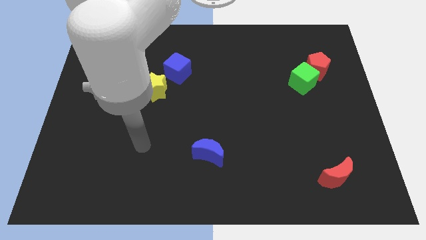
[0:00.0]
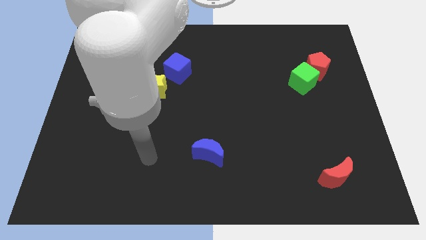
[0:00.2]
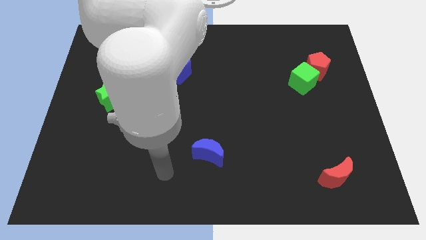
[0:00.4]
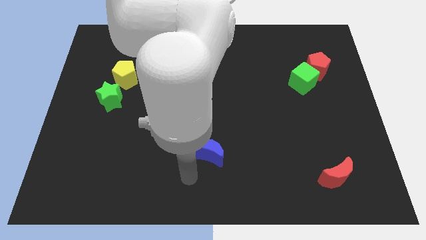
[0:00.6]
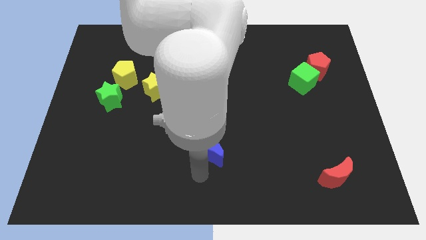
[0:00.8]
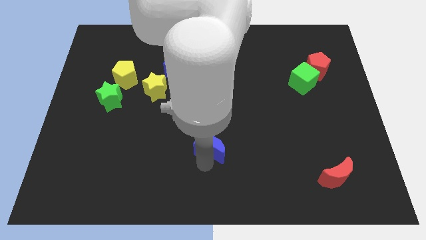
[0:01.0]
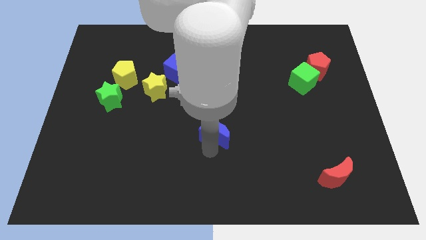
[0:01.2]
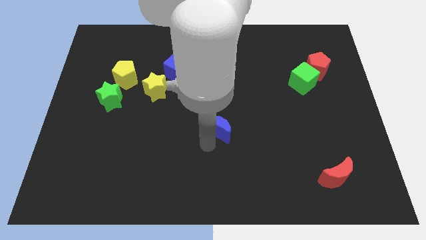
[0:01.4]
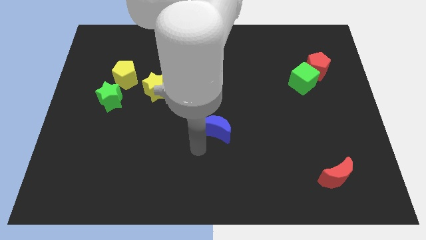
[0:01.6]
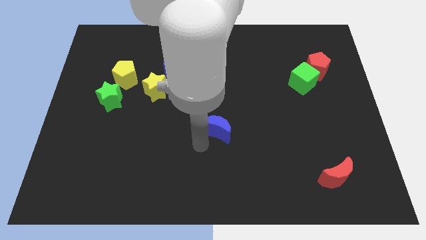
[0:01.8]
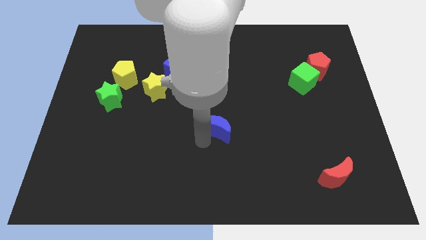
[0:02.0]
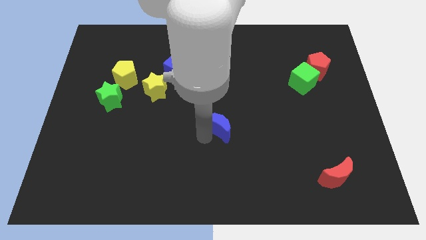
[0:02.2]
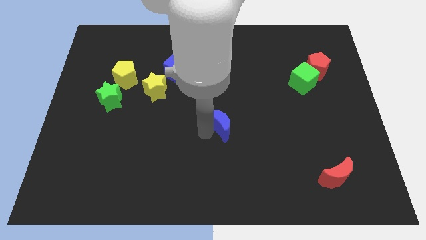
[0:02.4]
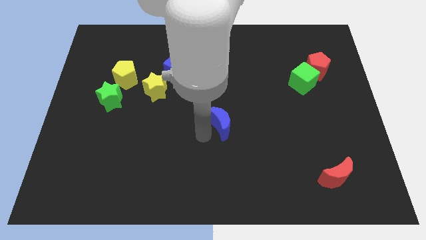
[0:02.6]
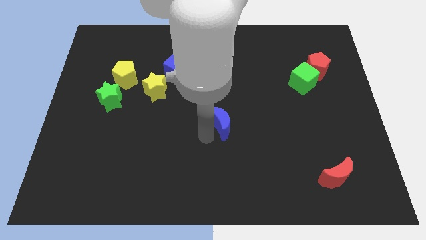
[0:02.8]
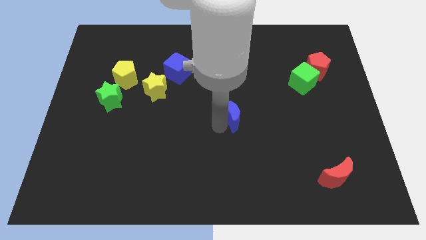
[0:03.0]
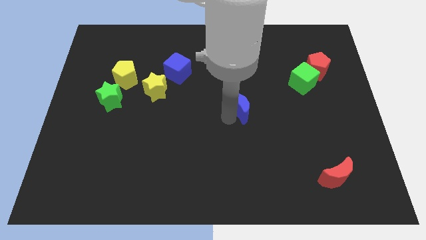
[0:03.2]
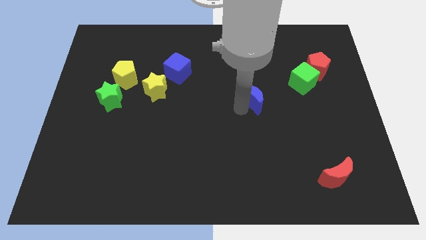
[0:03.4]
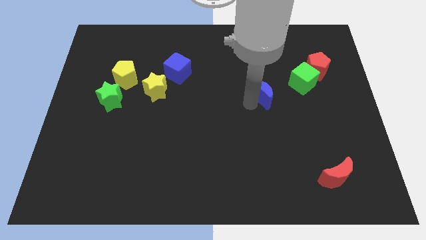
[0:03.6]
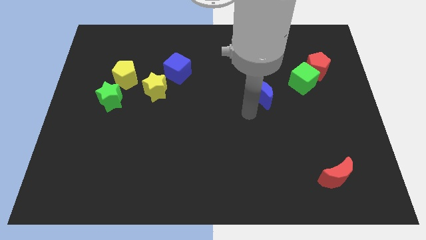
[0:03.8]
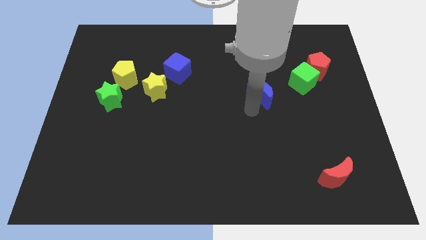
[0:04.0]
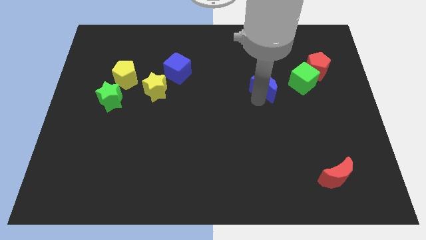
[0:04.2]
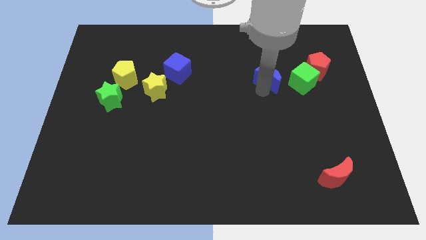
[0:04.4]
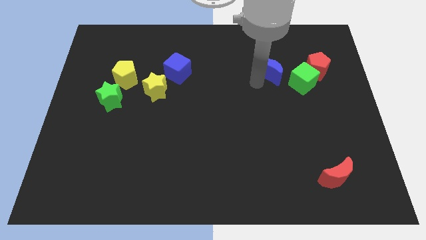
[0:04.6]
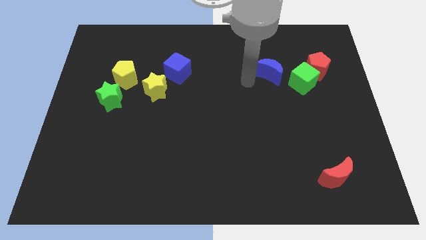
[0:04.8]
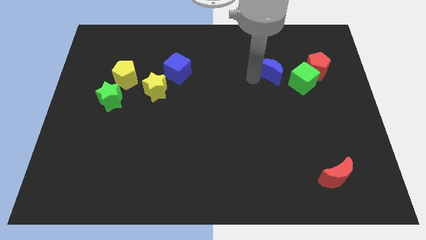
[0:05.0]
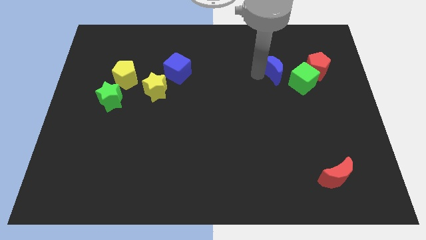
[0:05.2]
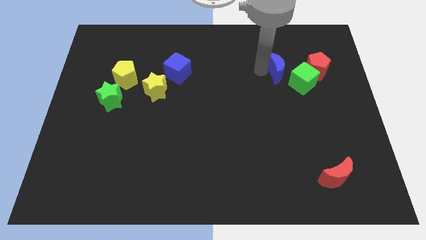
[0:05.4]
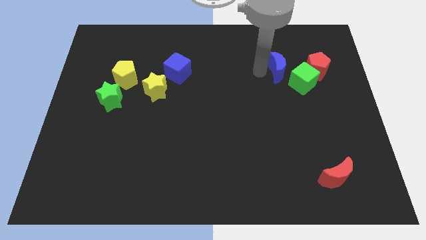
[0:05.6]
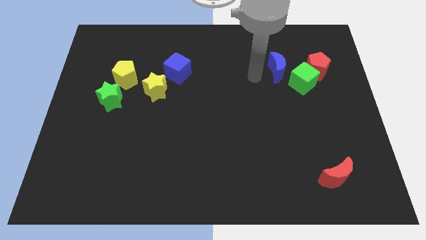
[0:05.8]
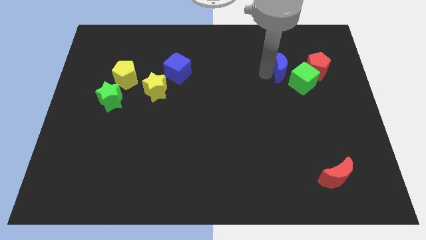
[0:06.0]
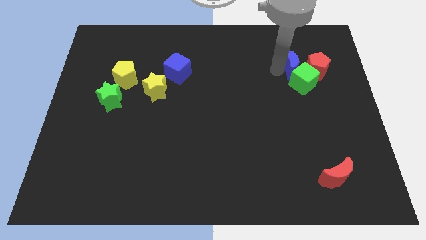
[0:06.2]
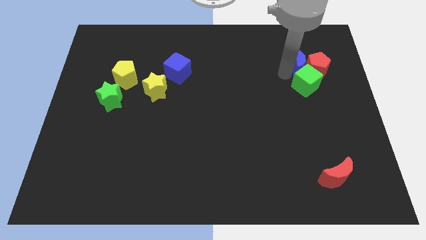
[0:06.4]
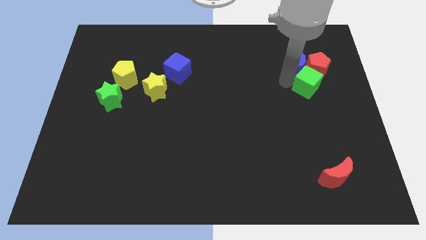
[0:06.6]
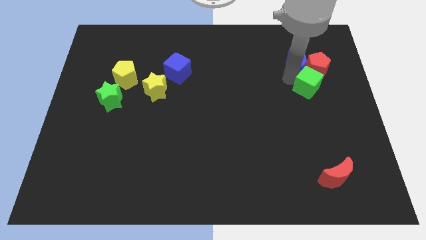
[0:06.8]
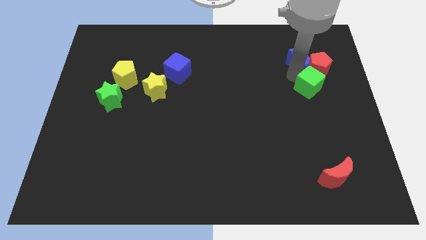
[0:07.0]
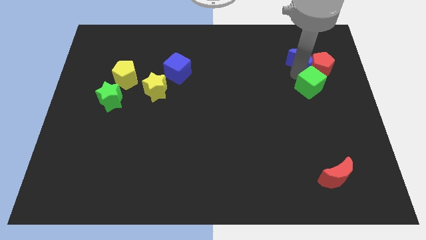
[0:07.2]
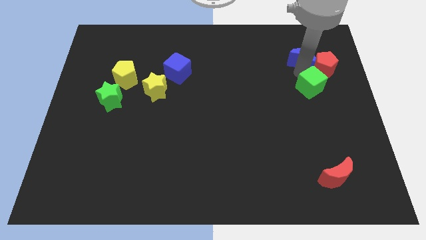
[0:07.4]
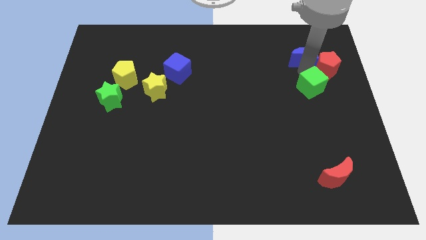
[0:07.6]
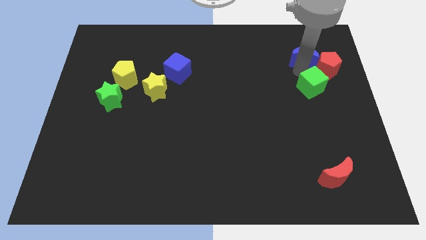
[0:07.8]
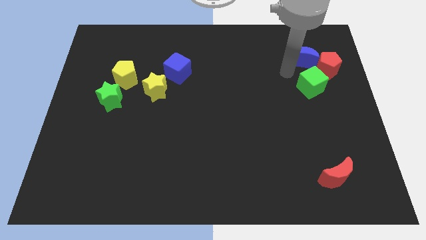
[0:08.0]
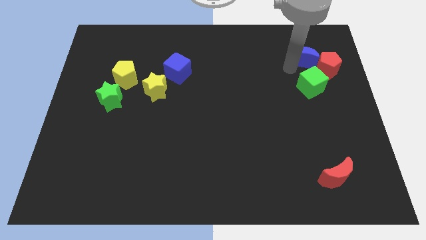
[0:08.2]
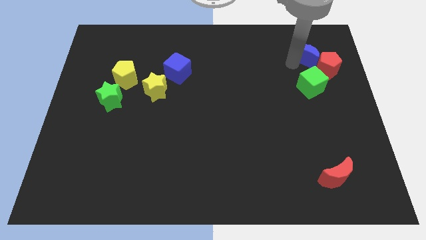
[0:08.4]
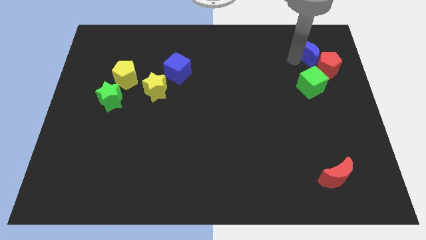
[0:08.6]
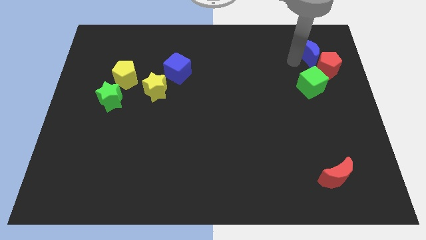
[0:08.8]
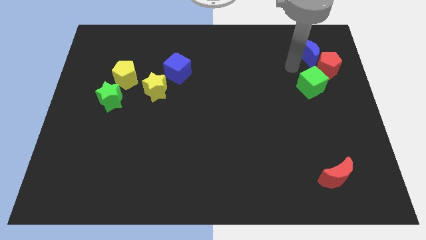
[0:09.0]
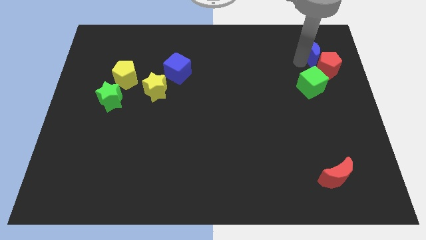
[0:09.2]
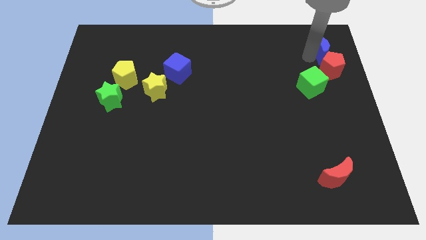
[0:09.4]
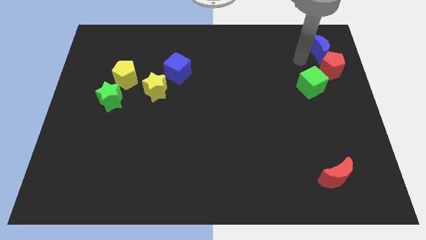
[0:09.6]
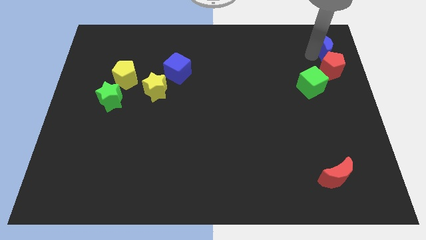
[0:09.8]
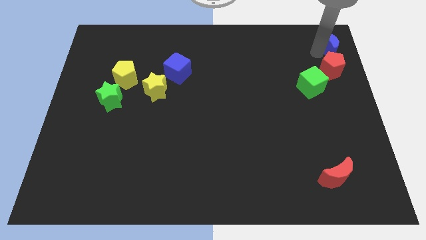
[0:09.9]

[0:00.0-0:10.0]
push the blue moon to the top right

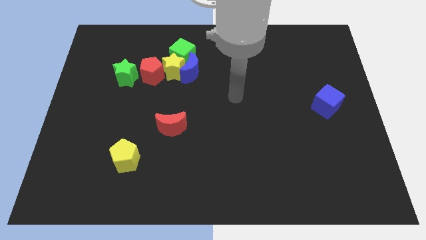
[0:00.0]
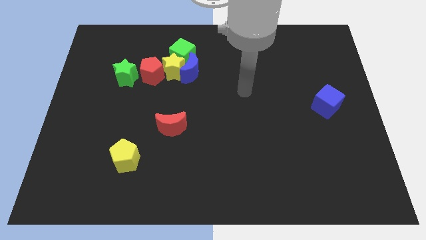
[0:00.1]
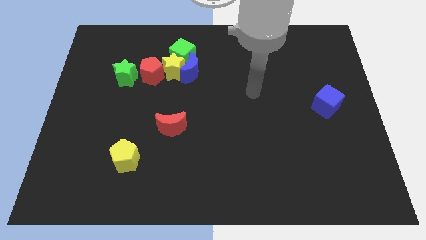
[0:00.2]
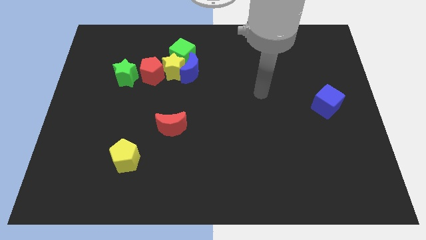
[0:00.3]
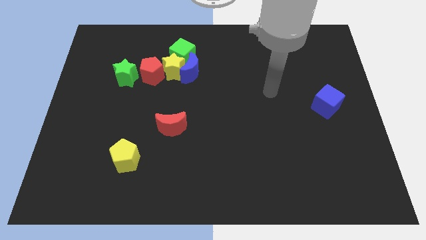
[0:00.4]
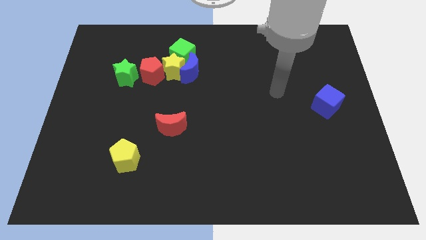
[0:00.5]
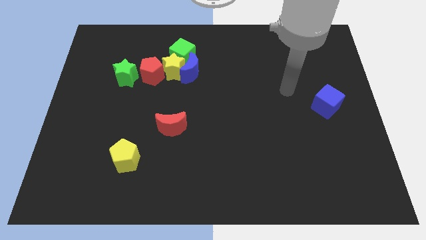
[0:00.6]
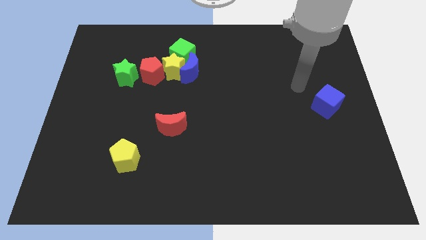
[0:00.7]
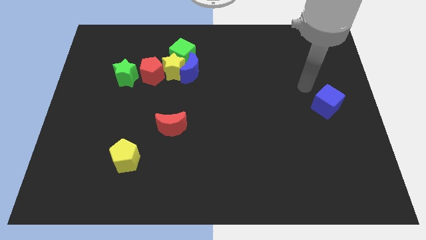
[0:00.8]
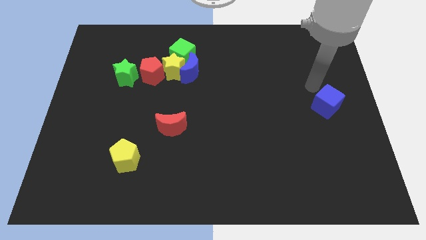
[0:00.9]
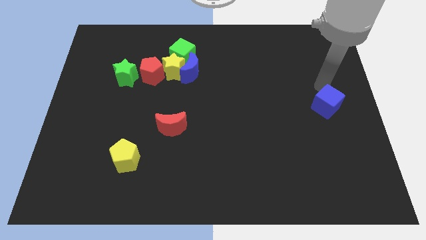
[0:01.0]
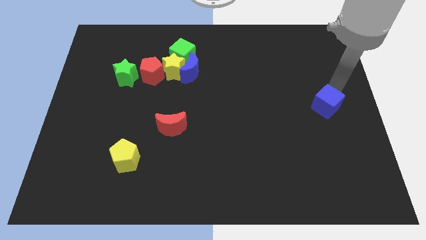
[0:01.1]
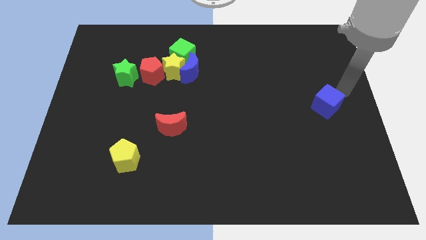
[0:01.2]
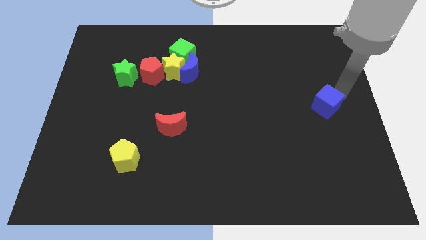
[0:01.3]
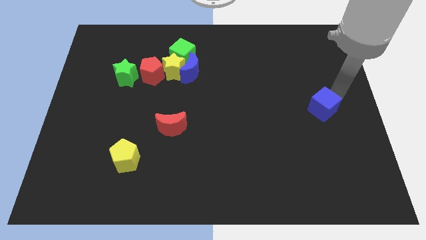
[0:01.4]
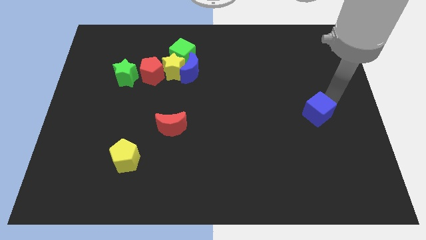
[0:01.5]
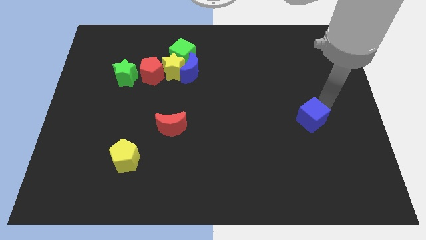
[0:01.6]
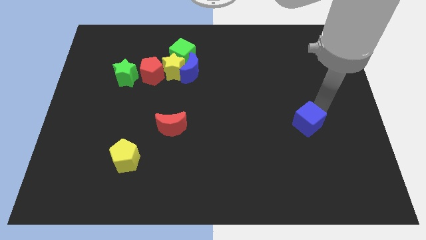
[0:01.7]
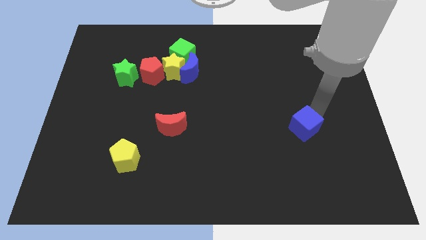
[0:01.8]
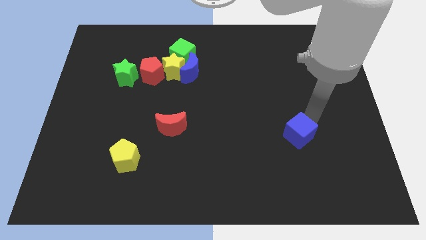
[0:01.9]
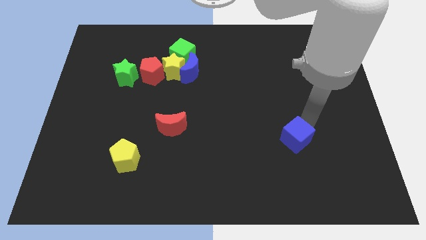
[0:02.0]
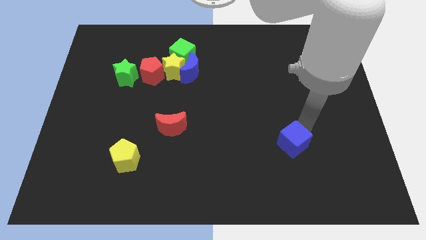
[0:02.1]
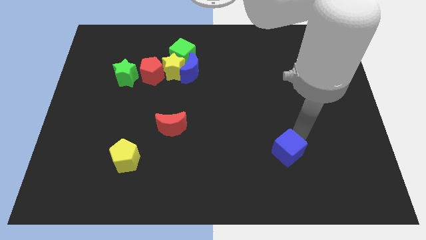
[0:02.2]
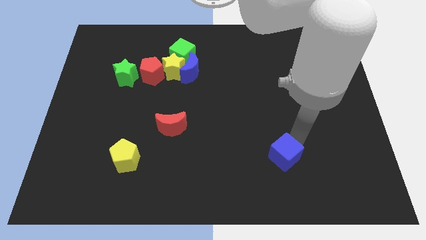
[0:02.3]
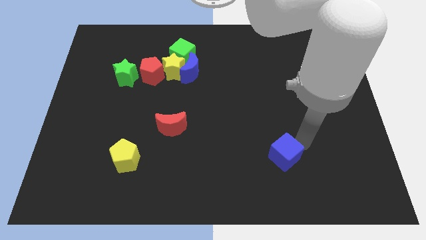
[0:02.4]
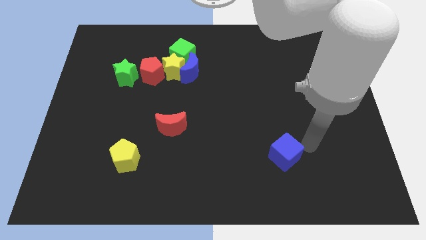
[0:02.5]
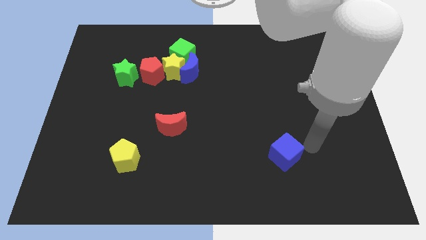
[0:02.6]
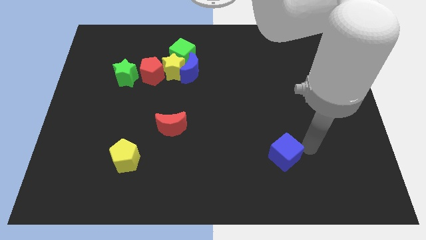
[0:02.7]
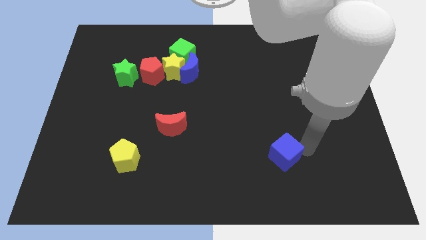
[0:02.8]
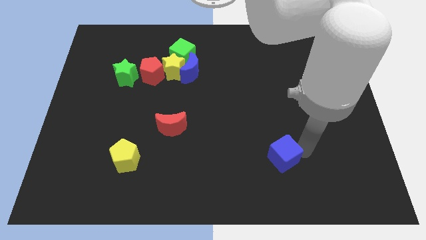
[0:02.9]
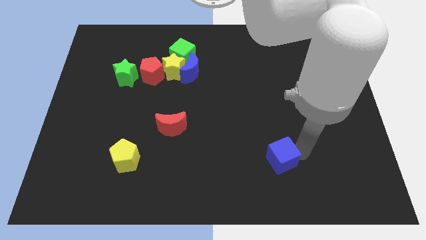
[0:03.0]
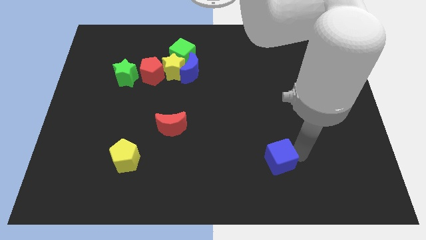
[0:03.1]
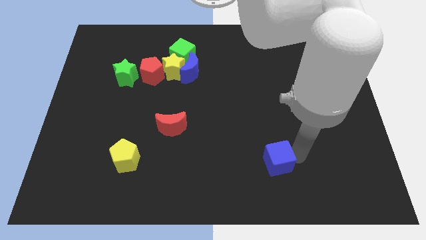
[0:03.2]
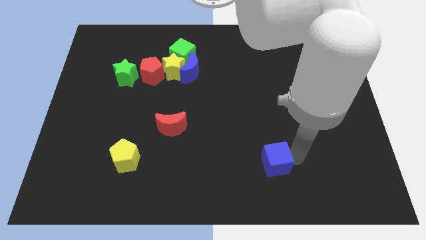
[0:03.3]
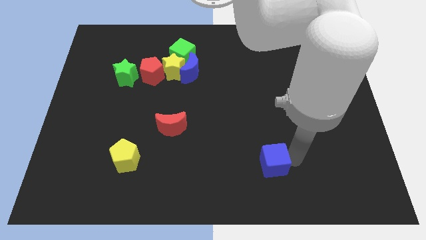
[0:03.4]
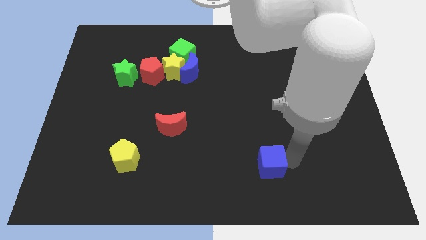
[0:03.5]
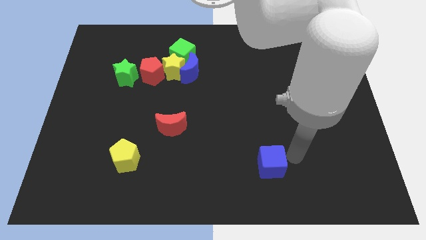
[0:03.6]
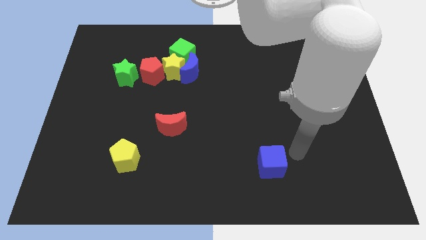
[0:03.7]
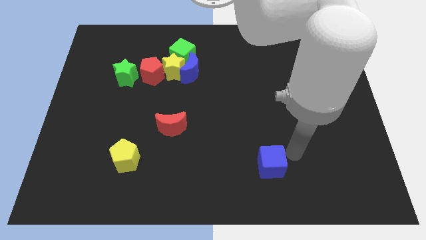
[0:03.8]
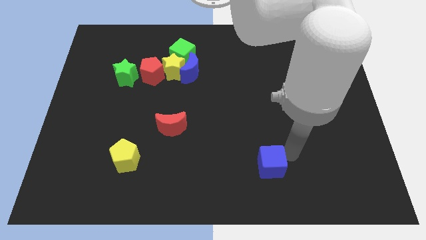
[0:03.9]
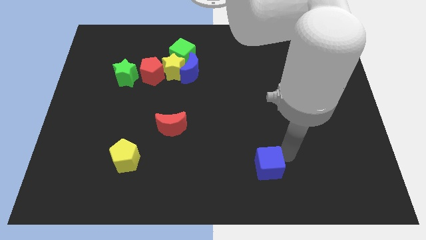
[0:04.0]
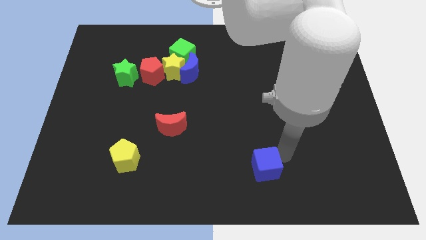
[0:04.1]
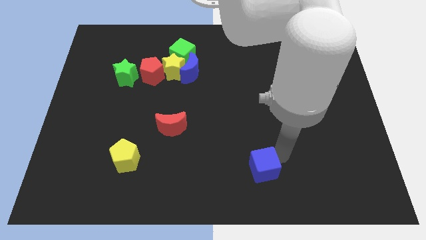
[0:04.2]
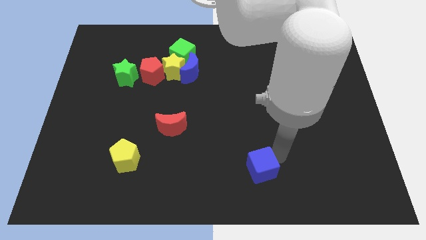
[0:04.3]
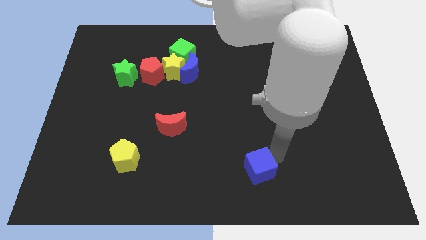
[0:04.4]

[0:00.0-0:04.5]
put the blue cube to the bottom
